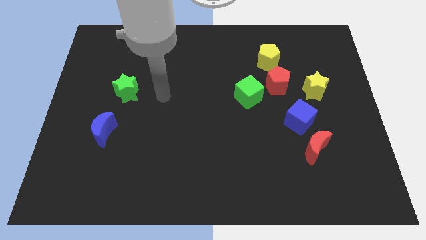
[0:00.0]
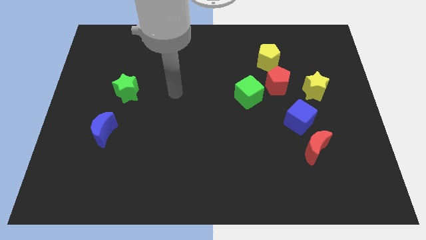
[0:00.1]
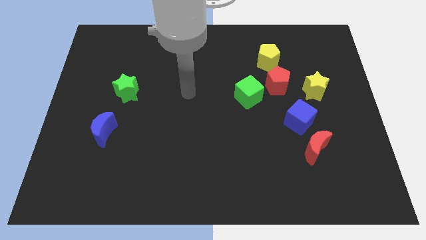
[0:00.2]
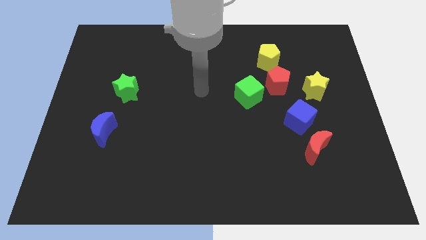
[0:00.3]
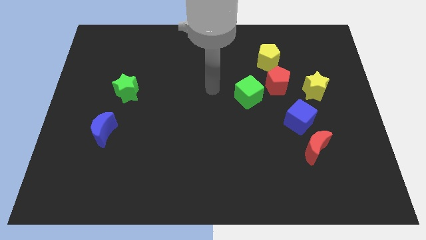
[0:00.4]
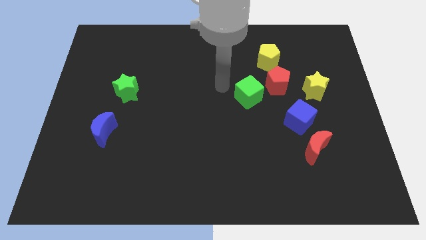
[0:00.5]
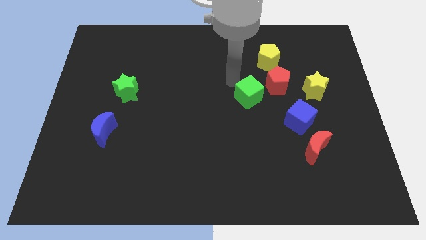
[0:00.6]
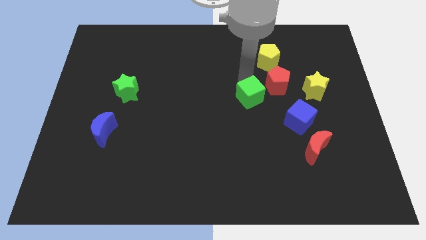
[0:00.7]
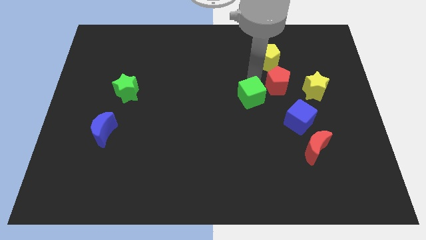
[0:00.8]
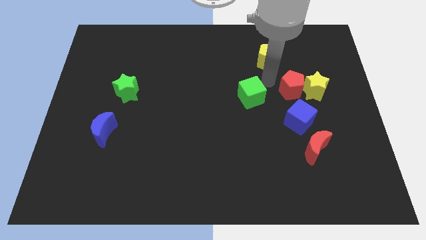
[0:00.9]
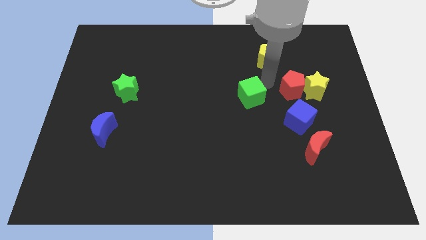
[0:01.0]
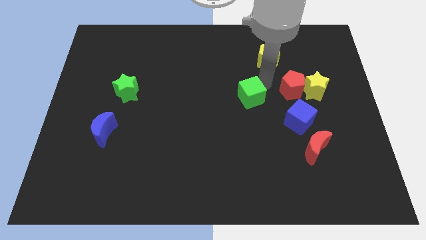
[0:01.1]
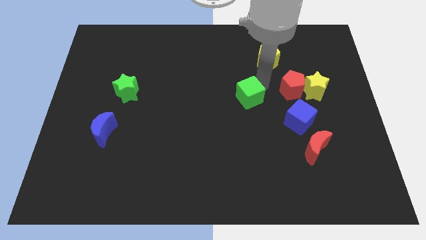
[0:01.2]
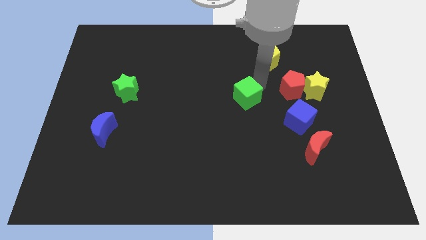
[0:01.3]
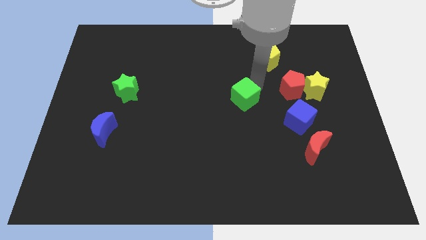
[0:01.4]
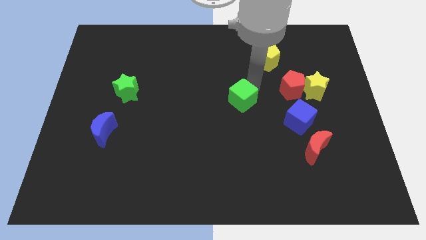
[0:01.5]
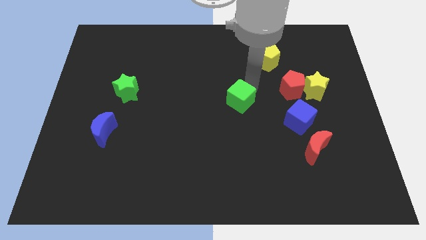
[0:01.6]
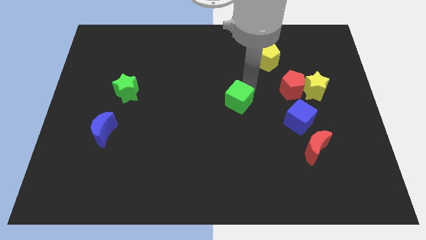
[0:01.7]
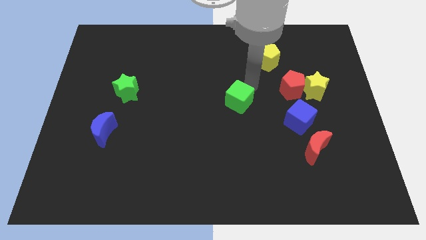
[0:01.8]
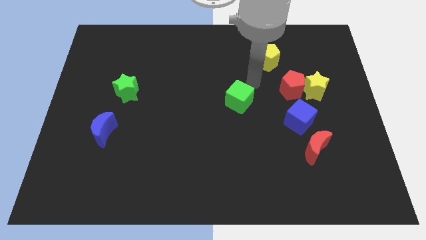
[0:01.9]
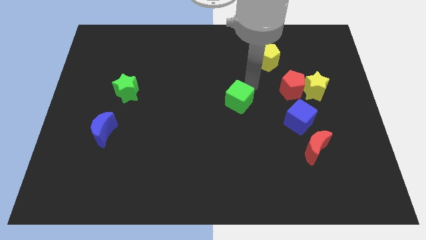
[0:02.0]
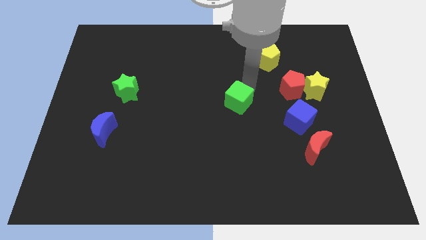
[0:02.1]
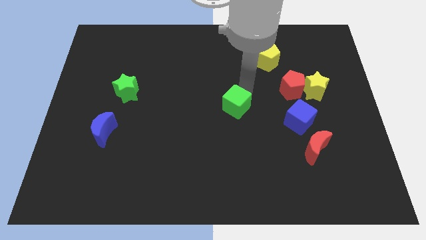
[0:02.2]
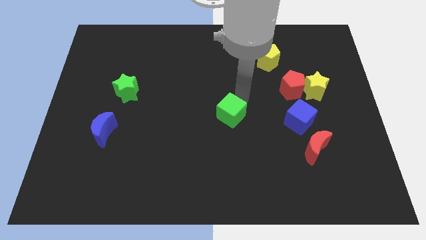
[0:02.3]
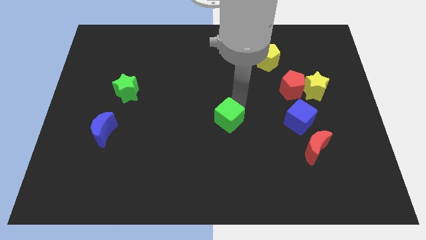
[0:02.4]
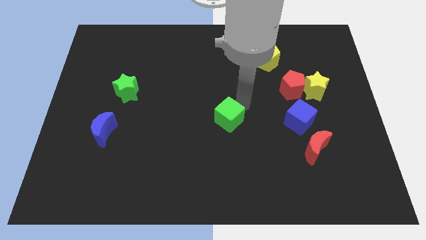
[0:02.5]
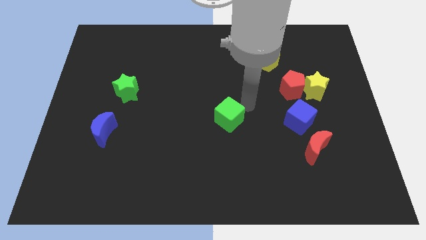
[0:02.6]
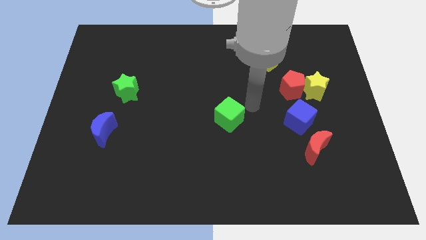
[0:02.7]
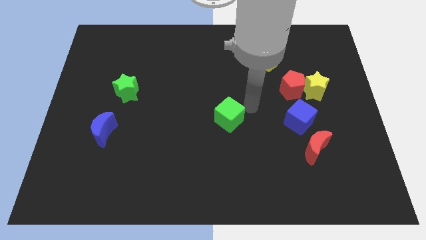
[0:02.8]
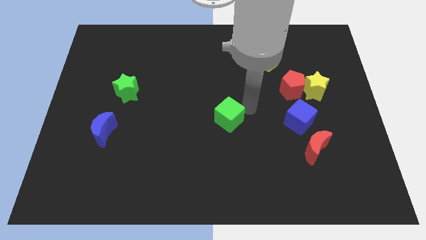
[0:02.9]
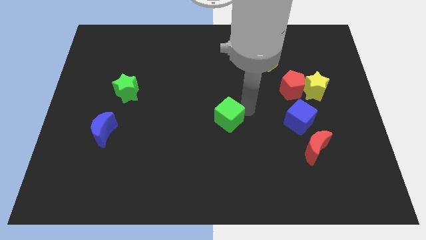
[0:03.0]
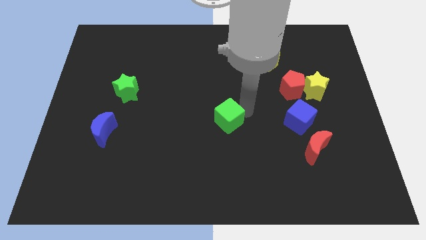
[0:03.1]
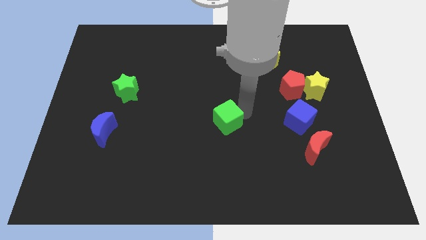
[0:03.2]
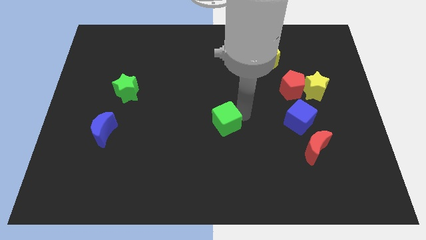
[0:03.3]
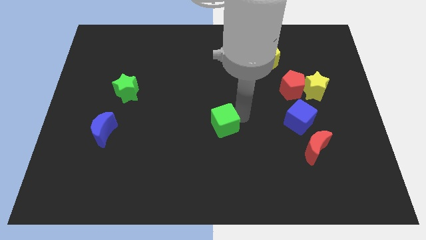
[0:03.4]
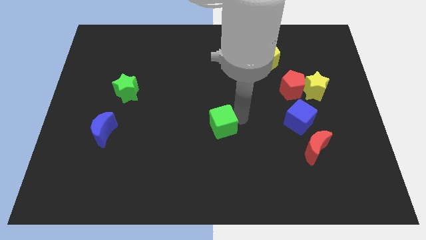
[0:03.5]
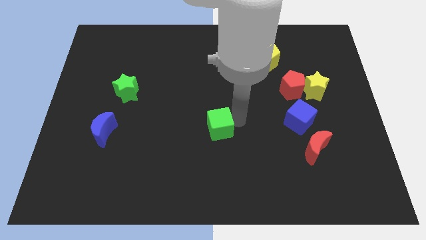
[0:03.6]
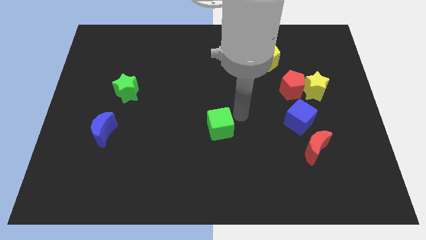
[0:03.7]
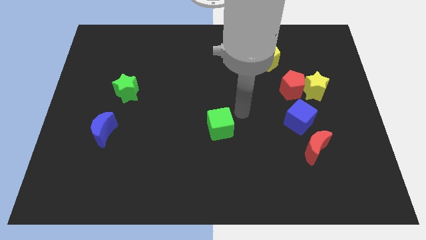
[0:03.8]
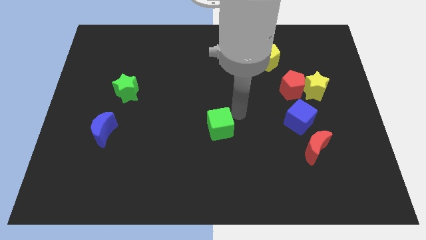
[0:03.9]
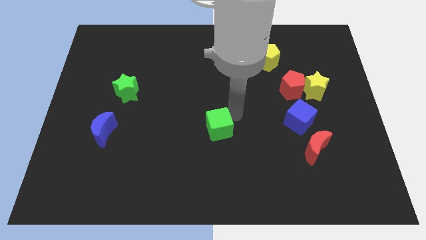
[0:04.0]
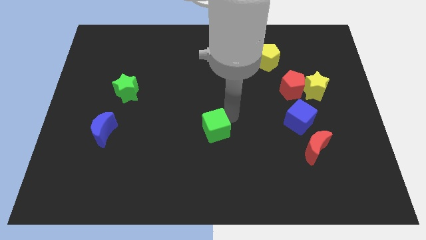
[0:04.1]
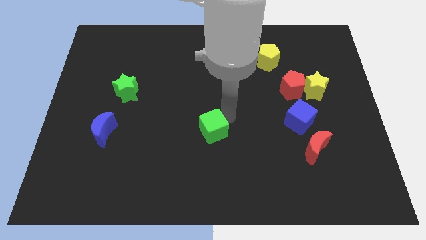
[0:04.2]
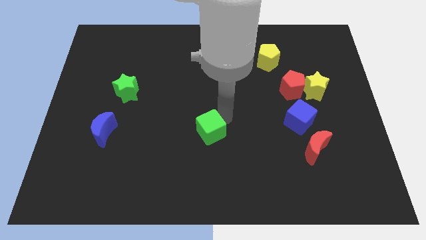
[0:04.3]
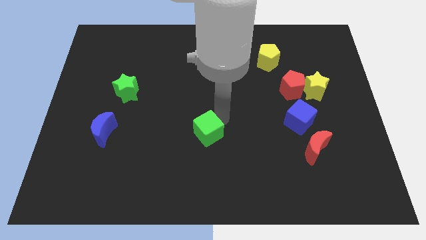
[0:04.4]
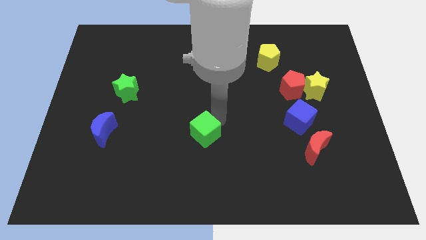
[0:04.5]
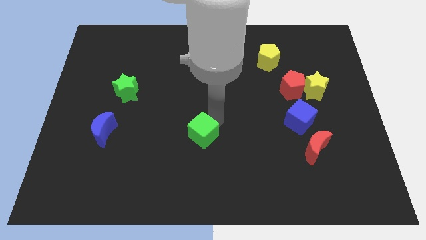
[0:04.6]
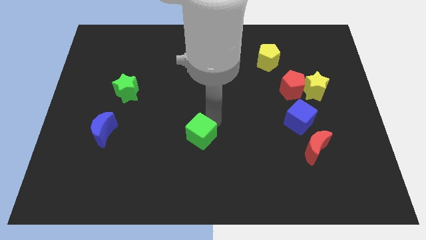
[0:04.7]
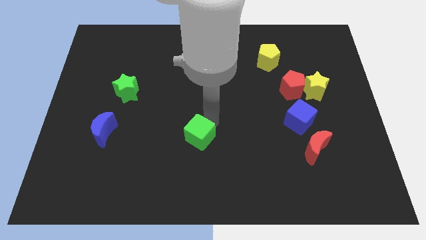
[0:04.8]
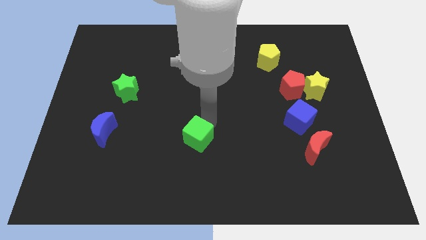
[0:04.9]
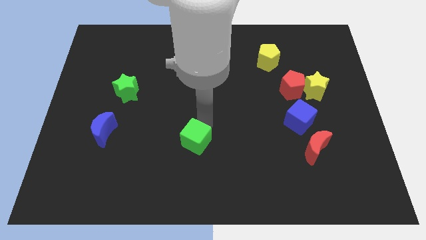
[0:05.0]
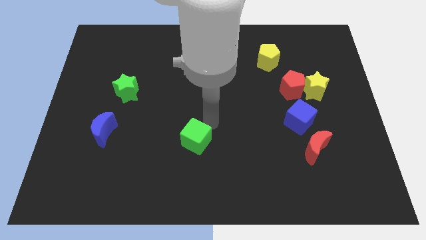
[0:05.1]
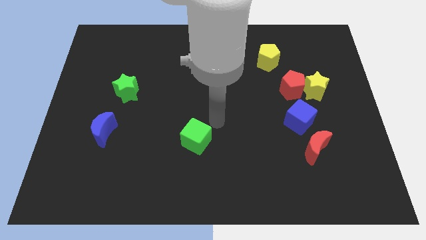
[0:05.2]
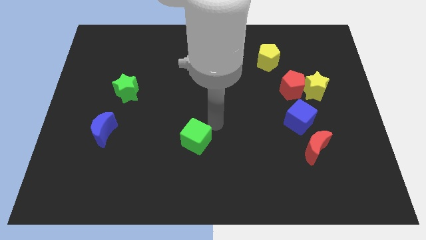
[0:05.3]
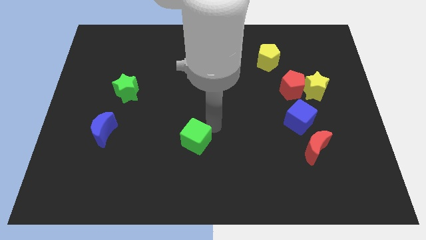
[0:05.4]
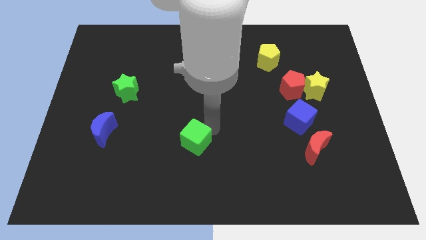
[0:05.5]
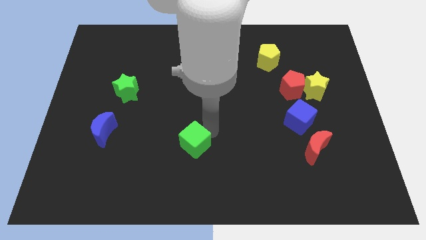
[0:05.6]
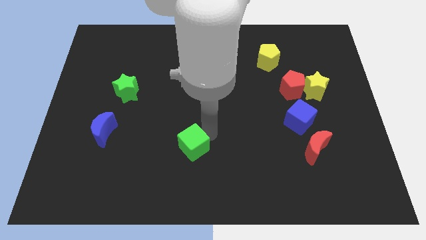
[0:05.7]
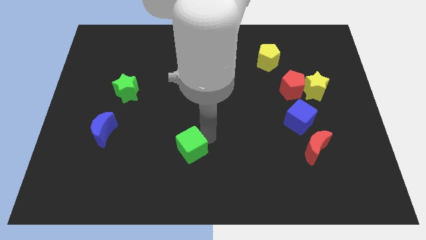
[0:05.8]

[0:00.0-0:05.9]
push the green cube down and then left

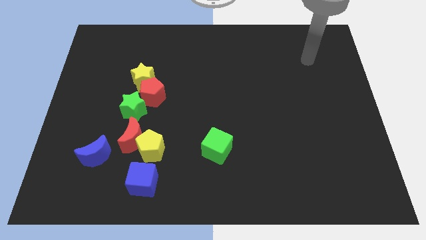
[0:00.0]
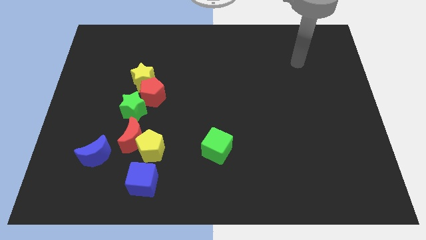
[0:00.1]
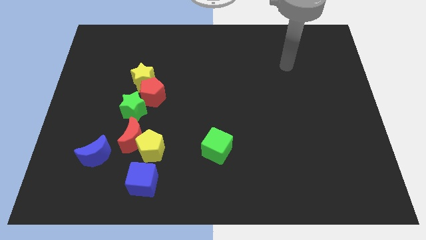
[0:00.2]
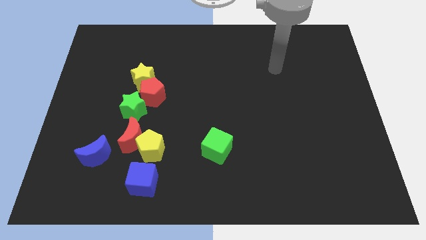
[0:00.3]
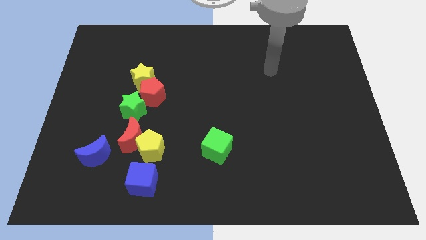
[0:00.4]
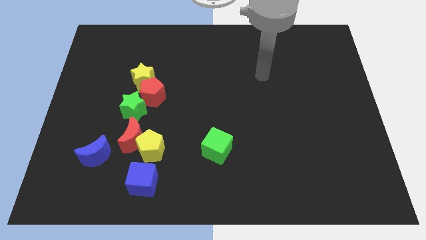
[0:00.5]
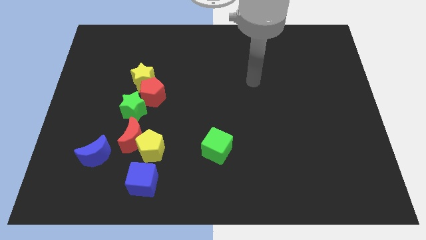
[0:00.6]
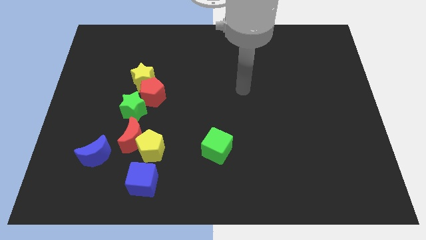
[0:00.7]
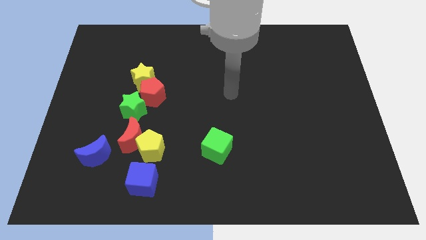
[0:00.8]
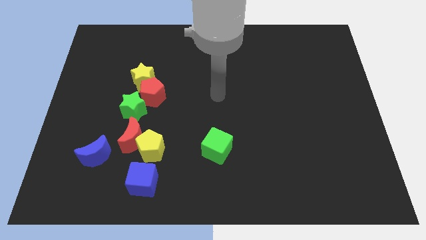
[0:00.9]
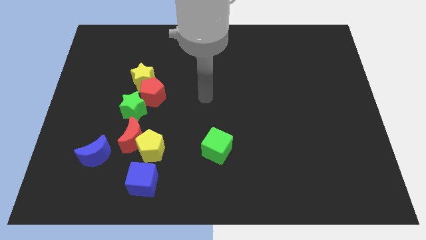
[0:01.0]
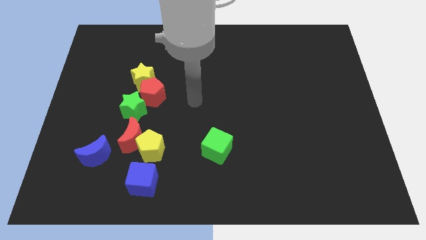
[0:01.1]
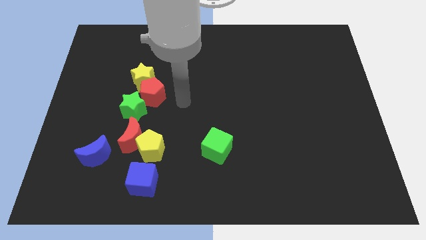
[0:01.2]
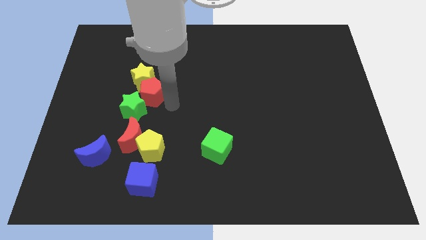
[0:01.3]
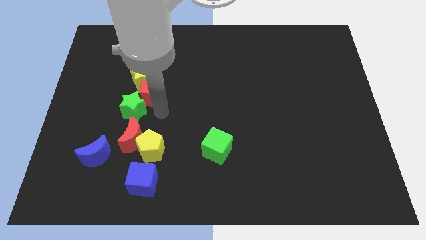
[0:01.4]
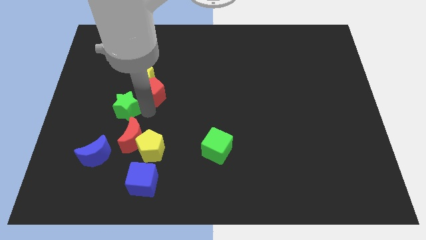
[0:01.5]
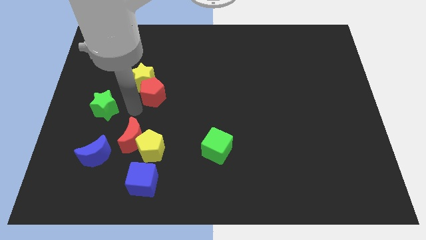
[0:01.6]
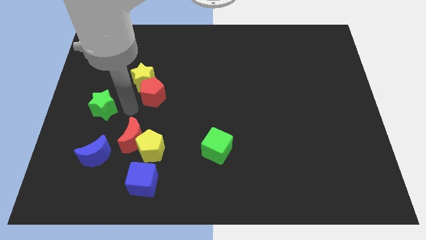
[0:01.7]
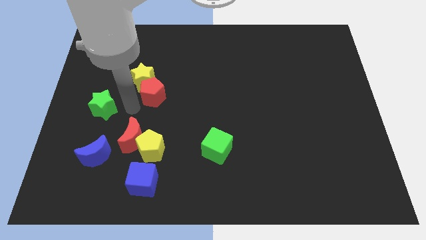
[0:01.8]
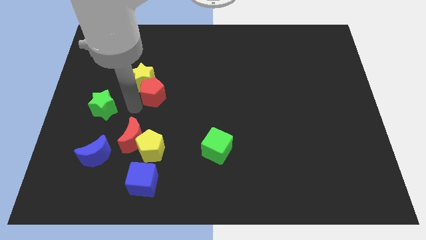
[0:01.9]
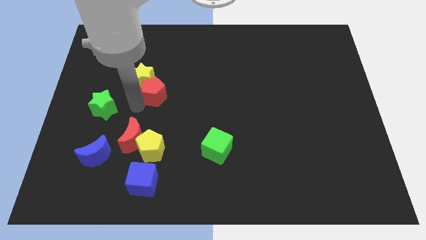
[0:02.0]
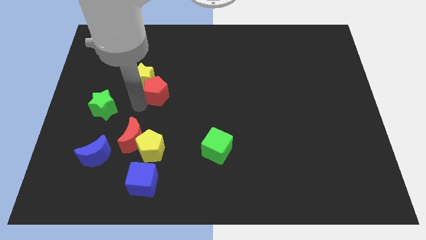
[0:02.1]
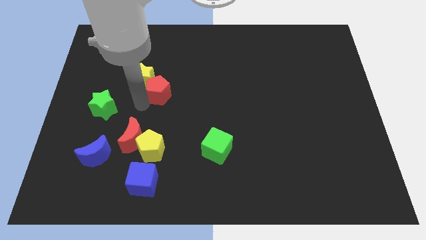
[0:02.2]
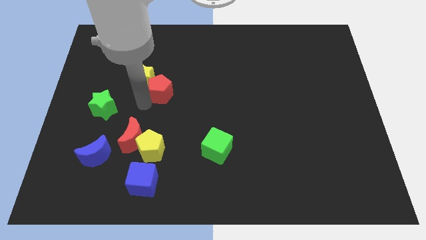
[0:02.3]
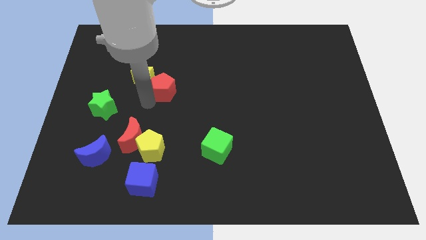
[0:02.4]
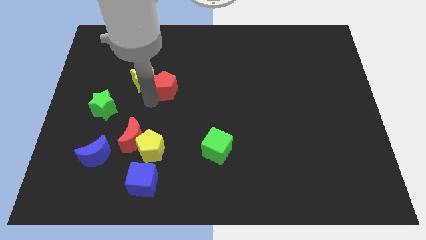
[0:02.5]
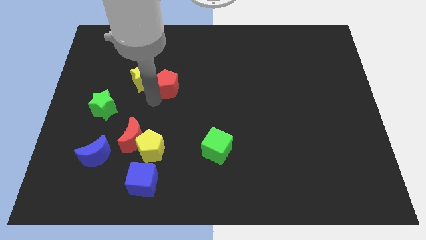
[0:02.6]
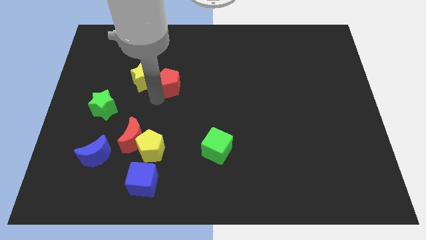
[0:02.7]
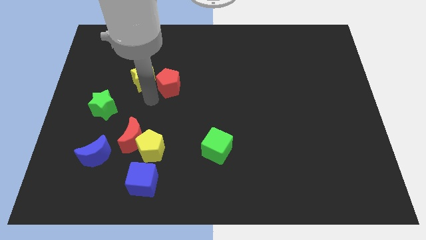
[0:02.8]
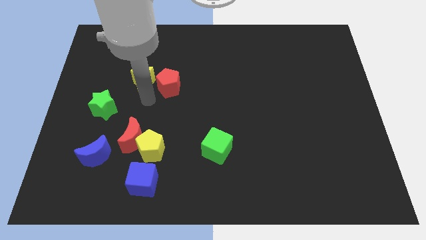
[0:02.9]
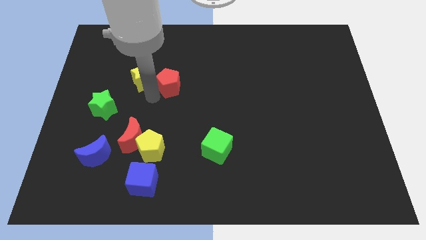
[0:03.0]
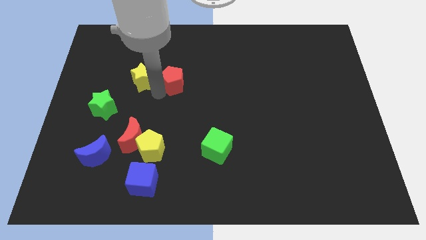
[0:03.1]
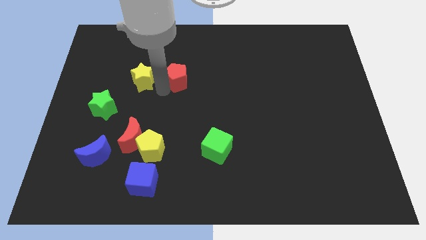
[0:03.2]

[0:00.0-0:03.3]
slide the red pentagon diagonally upwards and to the right slightly
